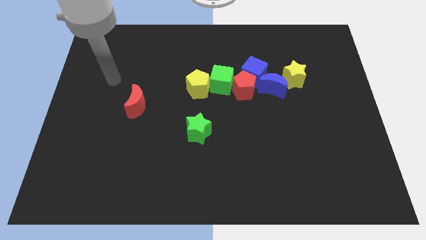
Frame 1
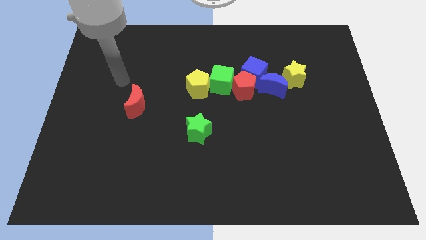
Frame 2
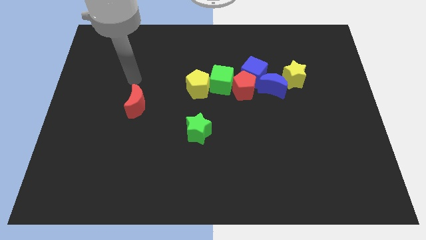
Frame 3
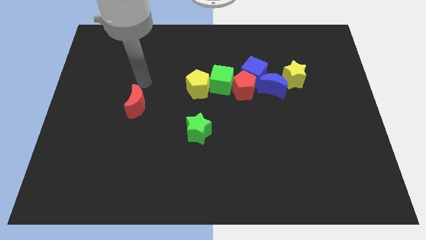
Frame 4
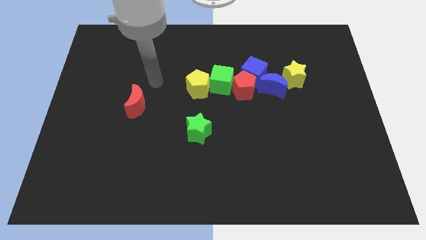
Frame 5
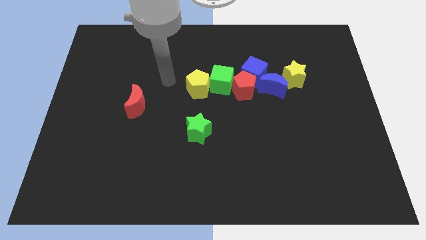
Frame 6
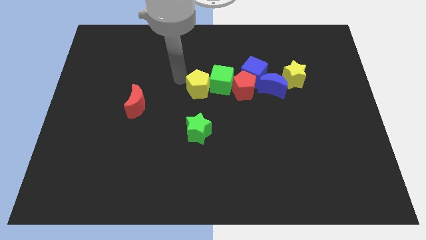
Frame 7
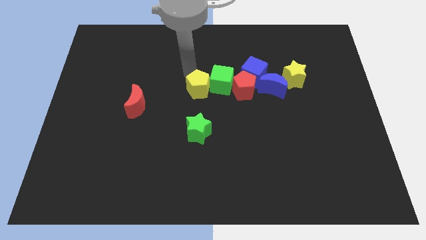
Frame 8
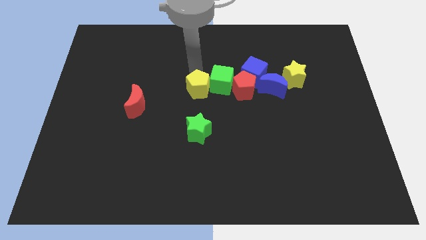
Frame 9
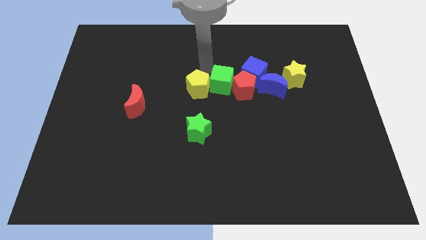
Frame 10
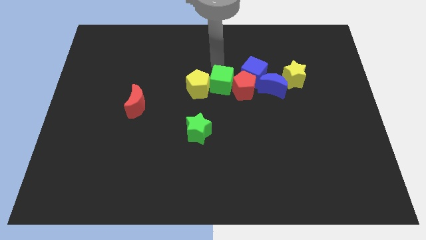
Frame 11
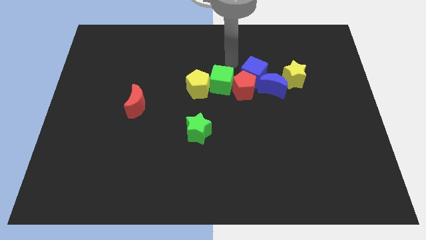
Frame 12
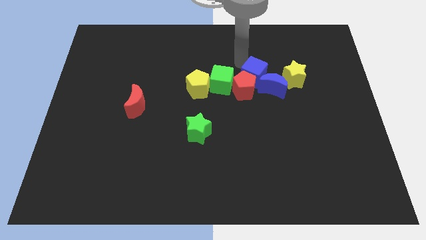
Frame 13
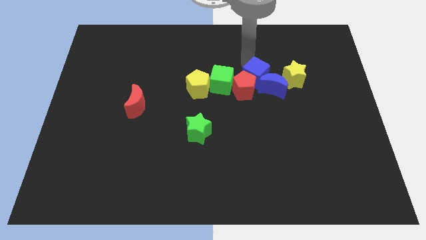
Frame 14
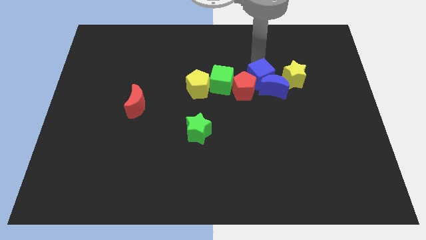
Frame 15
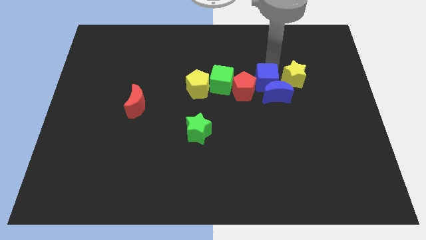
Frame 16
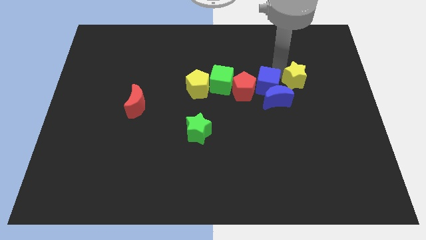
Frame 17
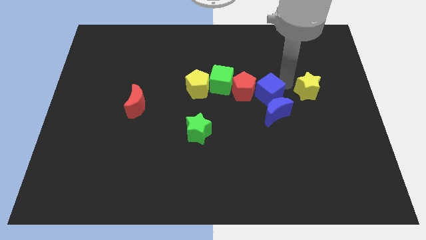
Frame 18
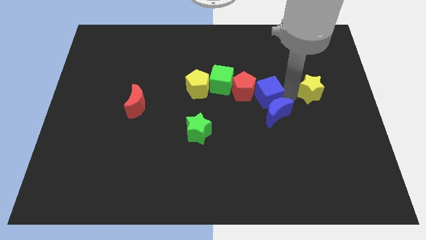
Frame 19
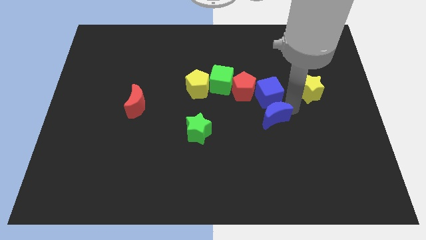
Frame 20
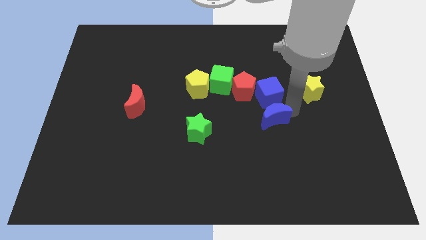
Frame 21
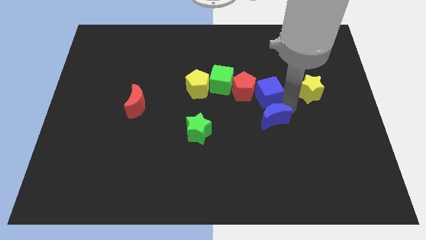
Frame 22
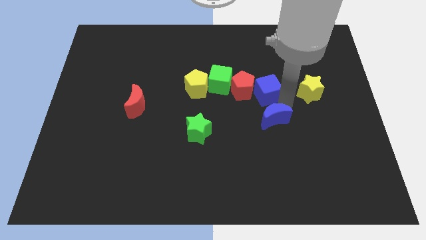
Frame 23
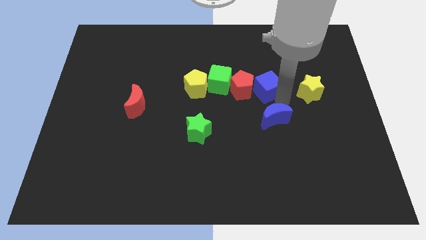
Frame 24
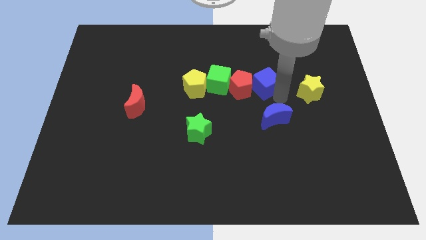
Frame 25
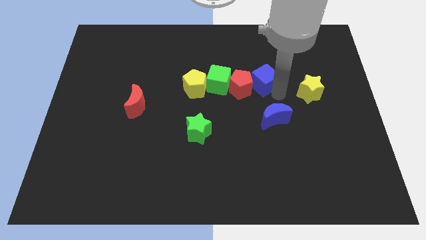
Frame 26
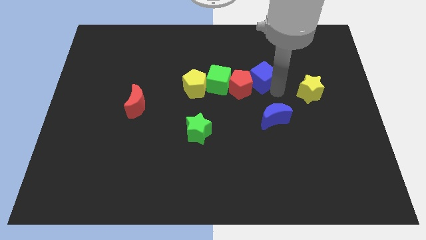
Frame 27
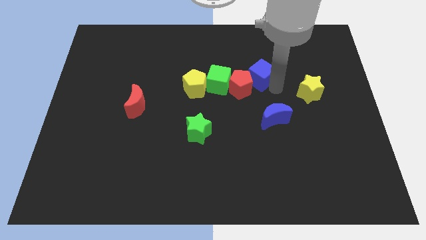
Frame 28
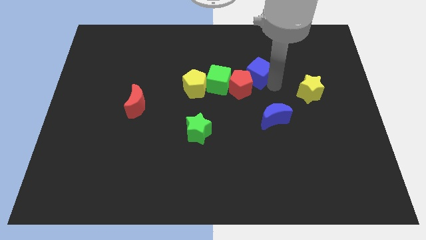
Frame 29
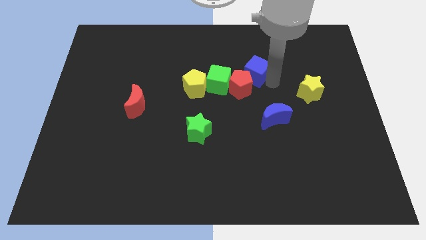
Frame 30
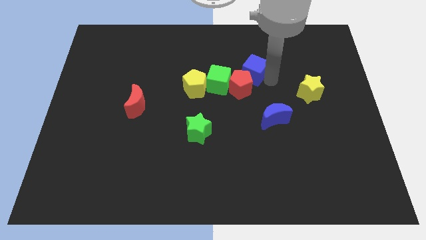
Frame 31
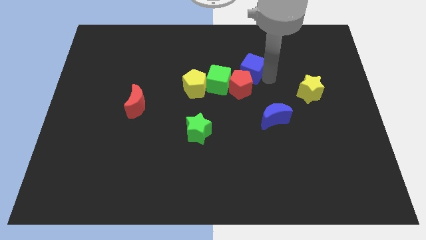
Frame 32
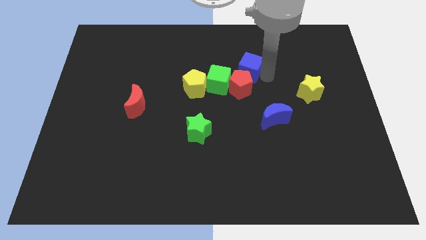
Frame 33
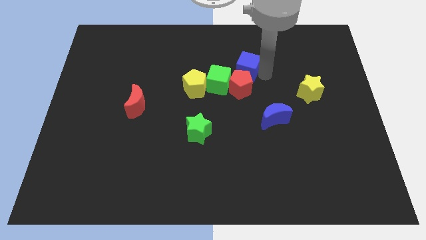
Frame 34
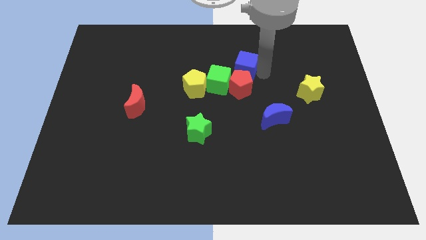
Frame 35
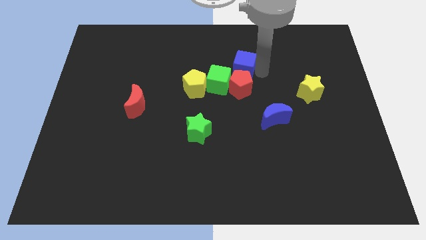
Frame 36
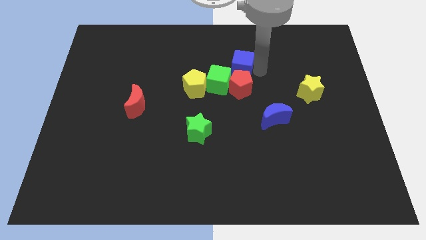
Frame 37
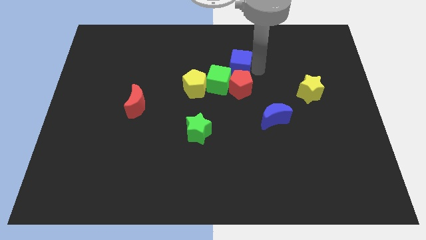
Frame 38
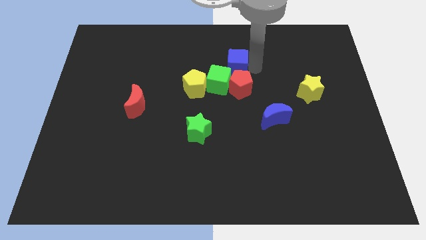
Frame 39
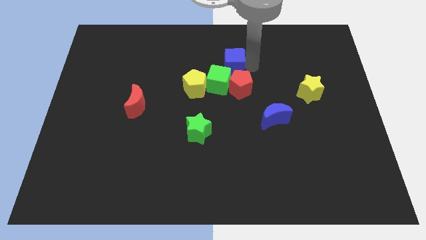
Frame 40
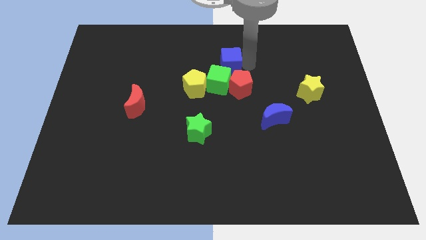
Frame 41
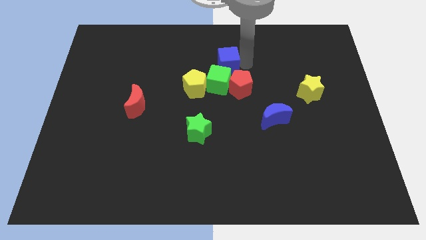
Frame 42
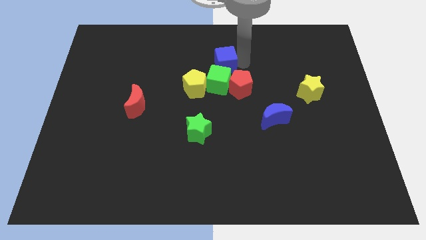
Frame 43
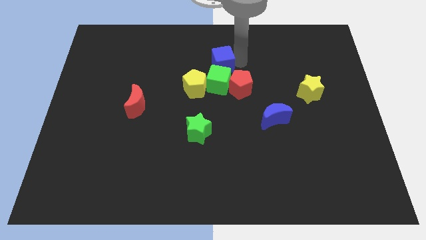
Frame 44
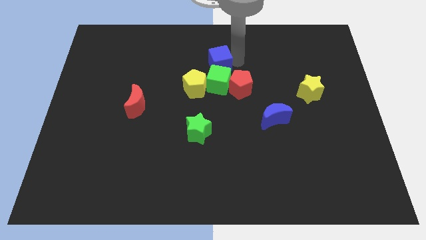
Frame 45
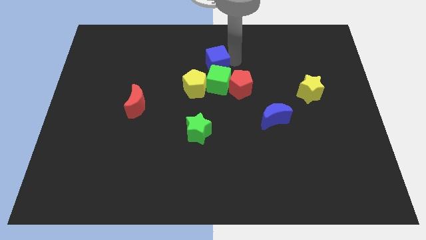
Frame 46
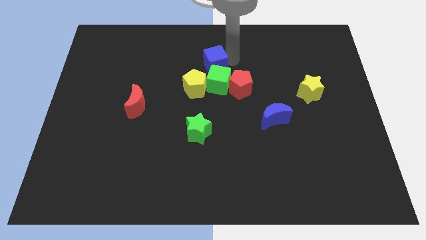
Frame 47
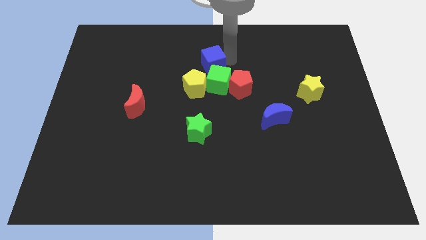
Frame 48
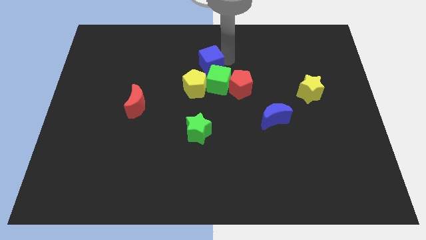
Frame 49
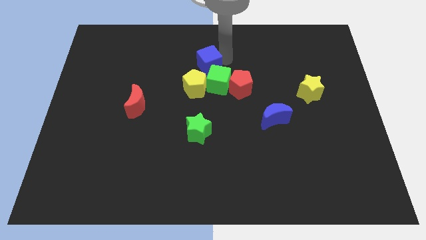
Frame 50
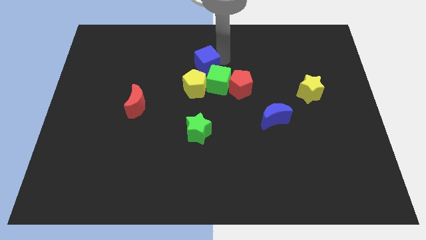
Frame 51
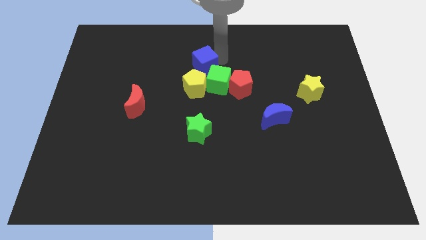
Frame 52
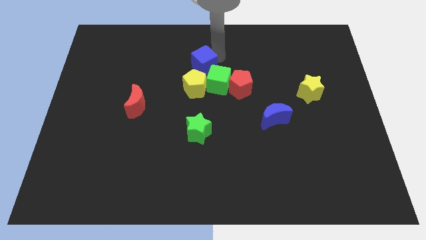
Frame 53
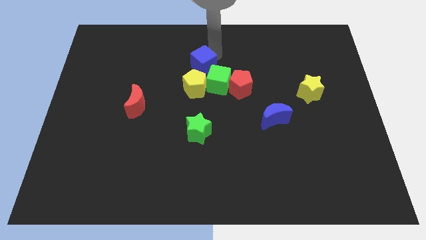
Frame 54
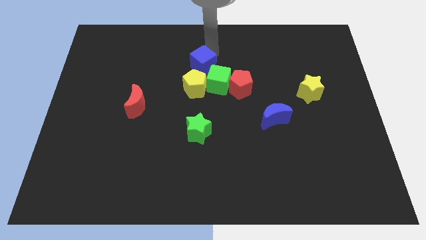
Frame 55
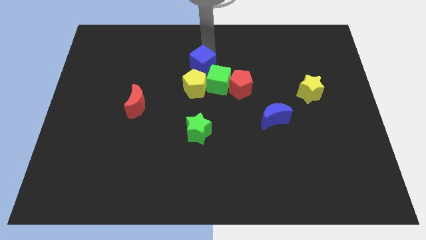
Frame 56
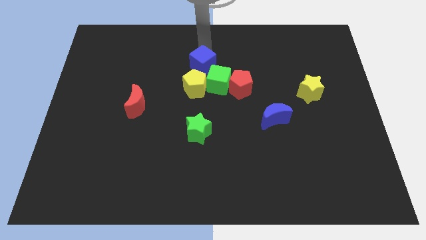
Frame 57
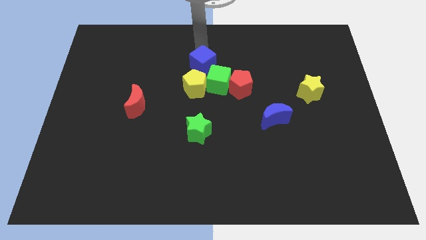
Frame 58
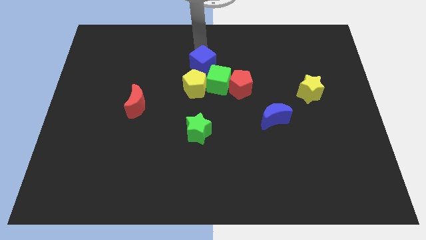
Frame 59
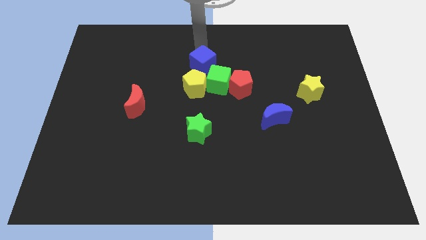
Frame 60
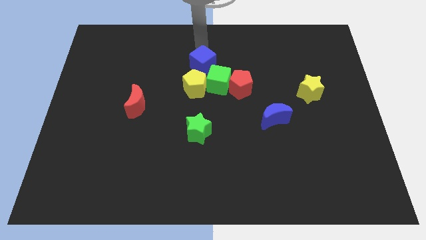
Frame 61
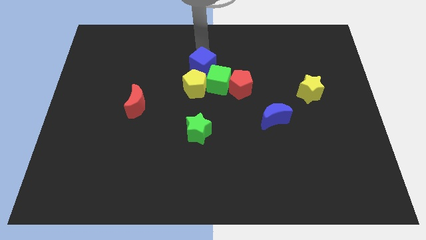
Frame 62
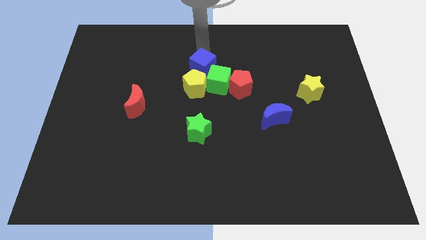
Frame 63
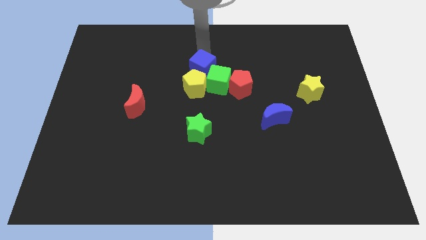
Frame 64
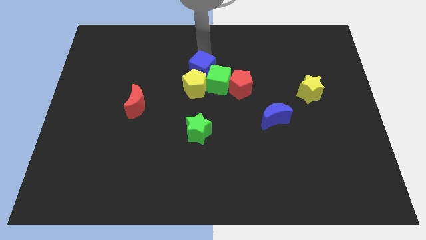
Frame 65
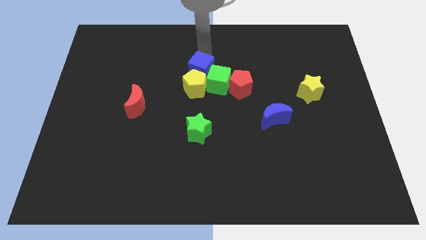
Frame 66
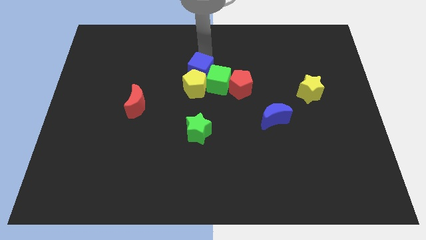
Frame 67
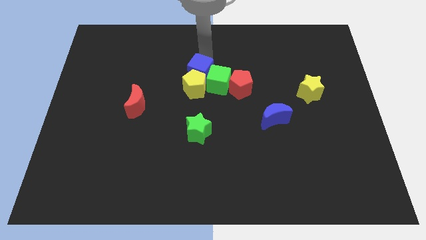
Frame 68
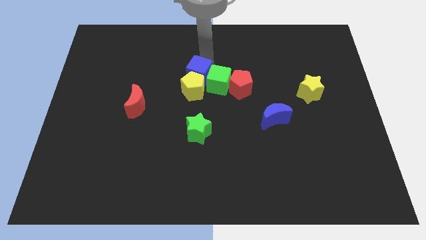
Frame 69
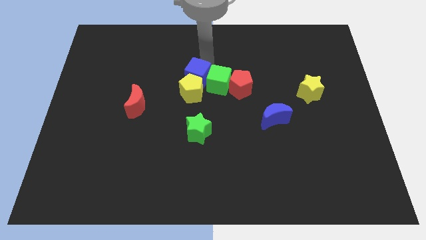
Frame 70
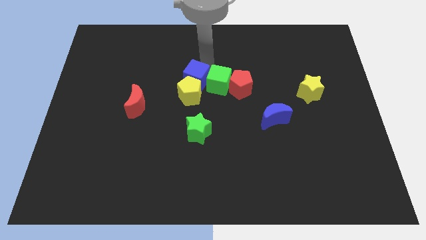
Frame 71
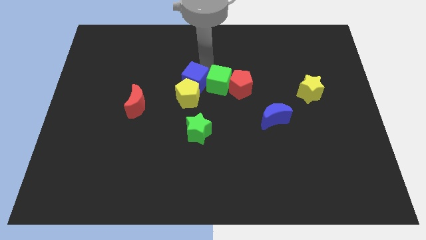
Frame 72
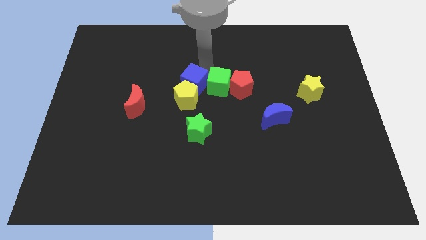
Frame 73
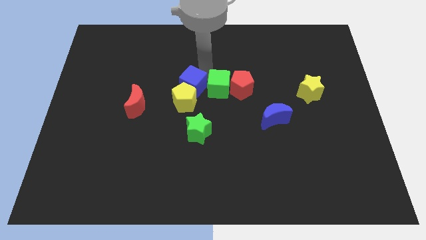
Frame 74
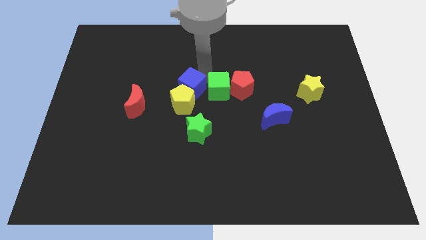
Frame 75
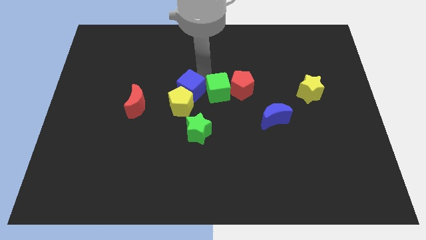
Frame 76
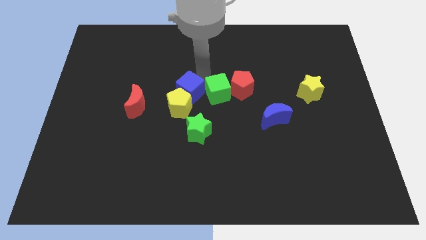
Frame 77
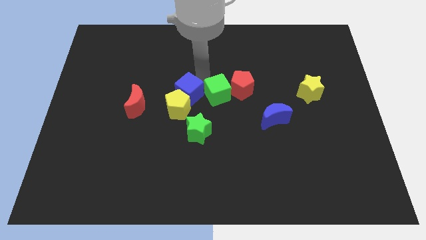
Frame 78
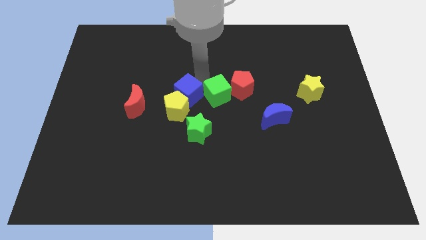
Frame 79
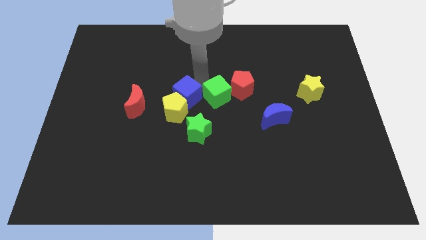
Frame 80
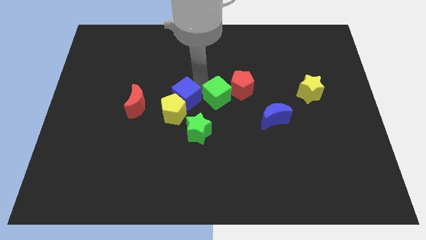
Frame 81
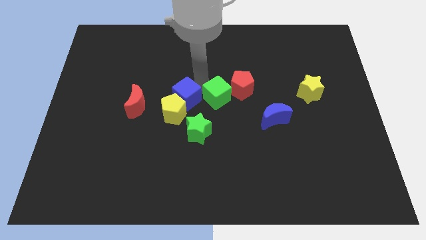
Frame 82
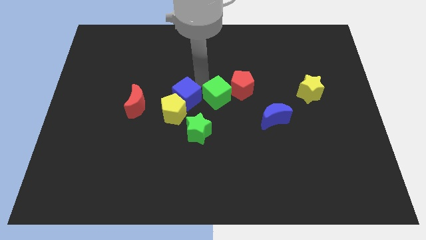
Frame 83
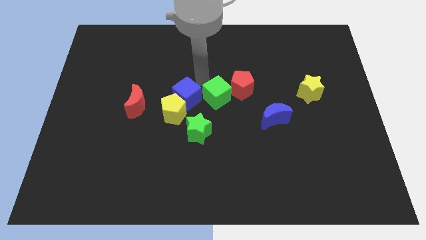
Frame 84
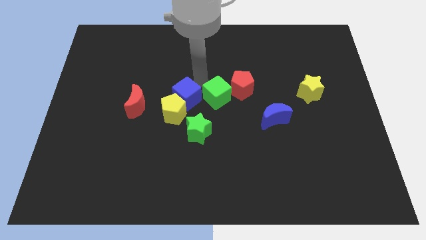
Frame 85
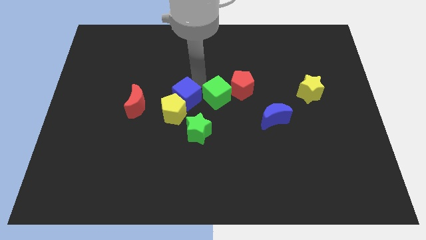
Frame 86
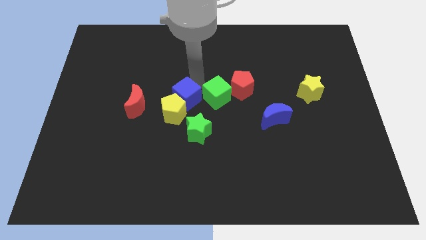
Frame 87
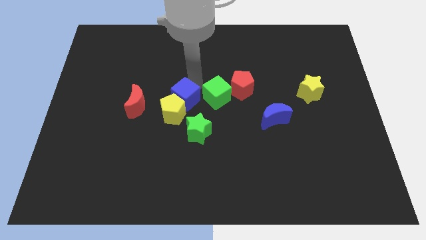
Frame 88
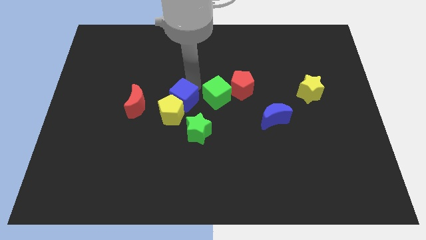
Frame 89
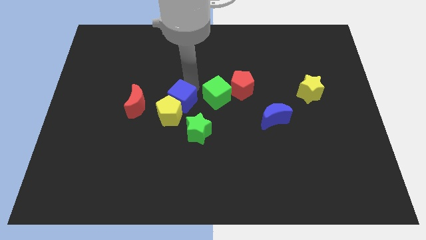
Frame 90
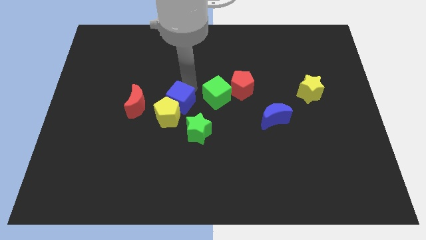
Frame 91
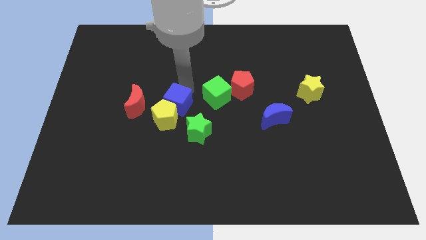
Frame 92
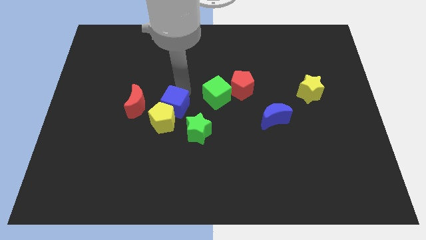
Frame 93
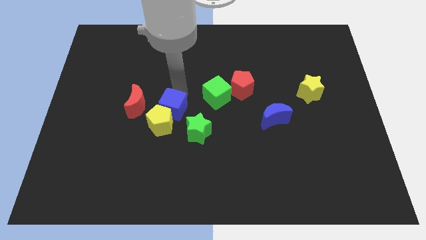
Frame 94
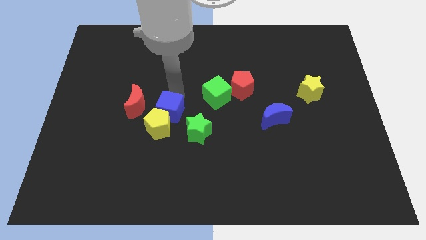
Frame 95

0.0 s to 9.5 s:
move the blue cube downwards and left
